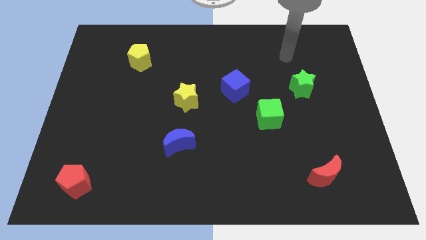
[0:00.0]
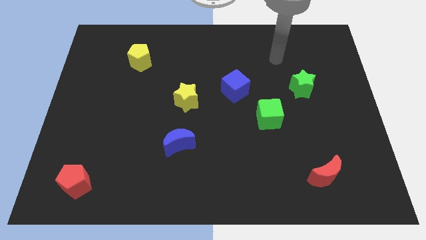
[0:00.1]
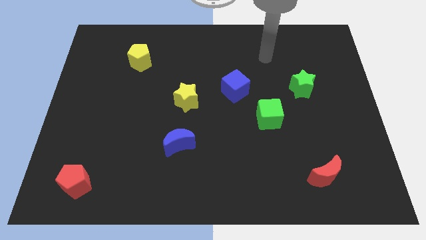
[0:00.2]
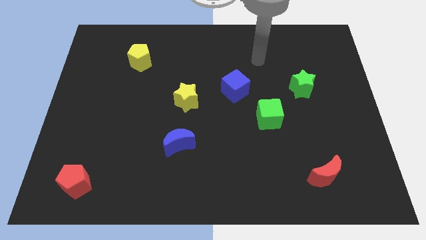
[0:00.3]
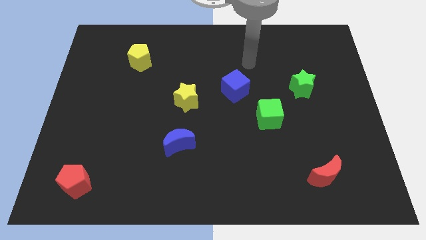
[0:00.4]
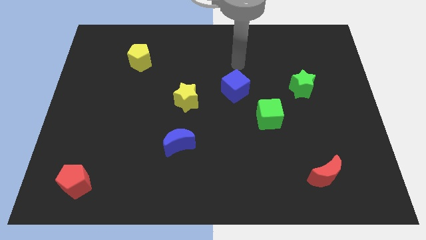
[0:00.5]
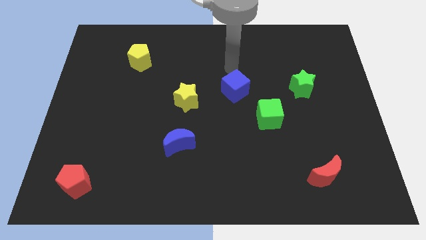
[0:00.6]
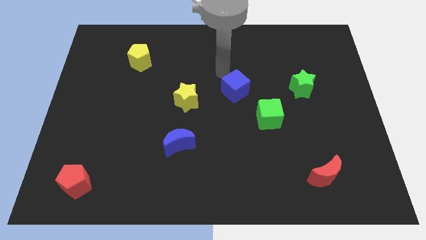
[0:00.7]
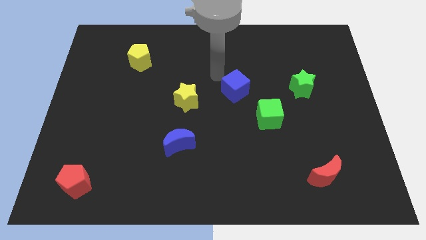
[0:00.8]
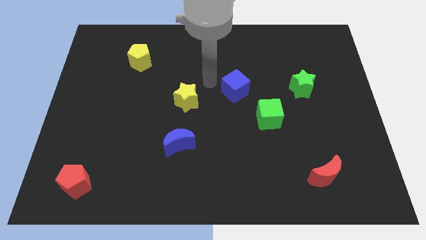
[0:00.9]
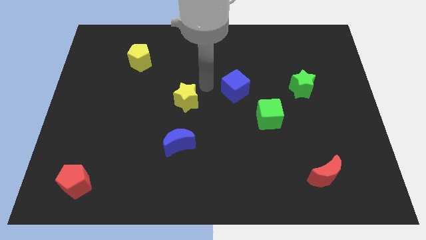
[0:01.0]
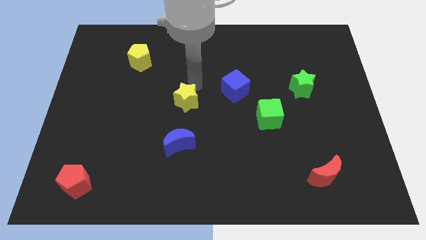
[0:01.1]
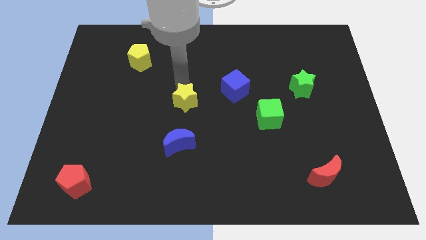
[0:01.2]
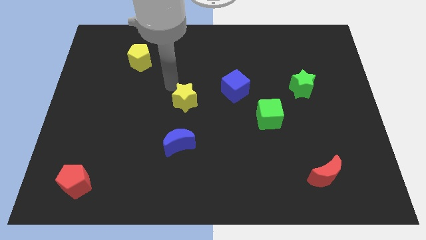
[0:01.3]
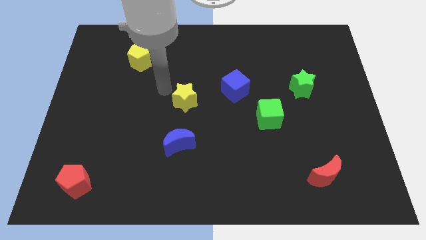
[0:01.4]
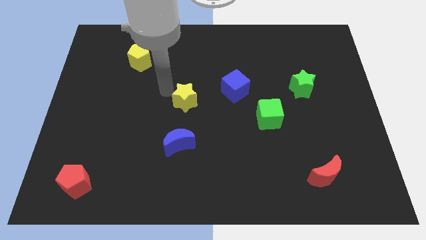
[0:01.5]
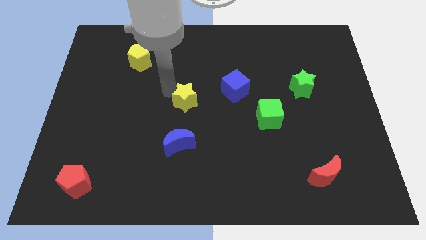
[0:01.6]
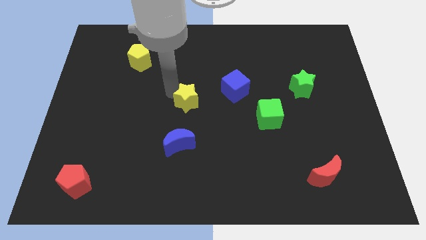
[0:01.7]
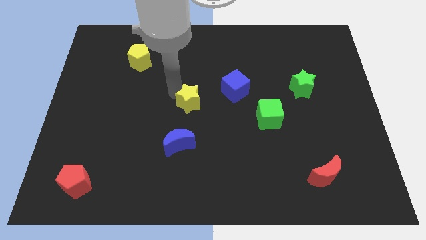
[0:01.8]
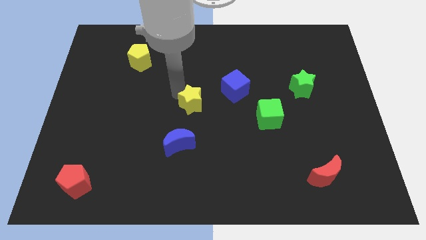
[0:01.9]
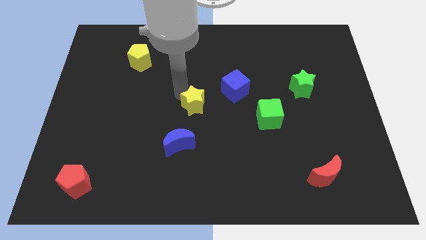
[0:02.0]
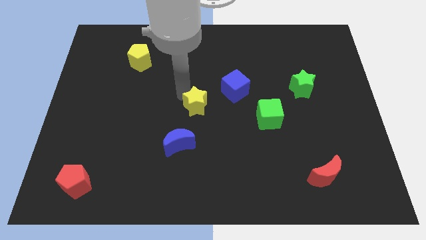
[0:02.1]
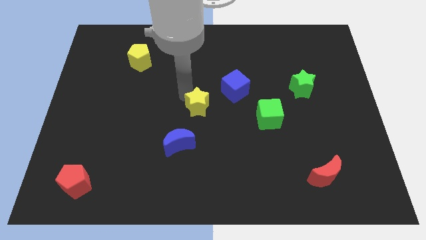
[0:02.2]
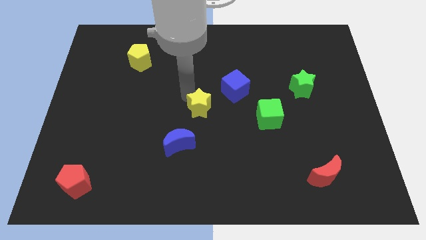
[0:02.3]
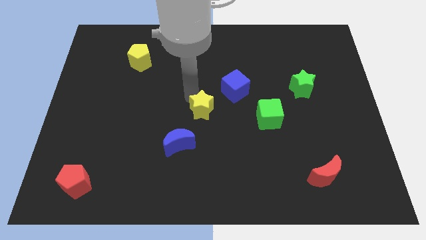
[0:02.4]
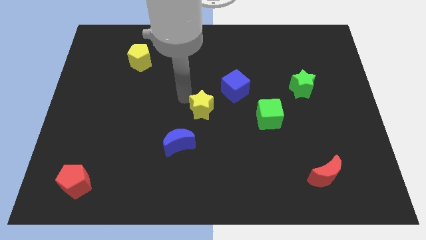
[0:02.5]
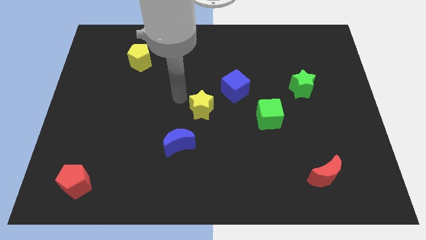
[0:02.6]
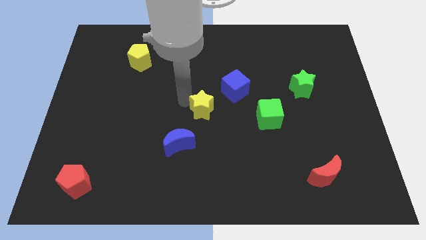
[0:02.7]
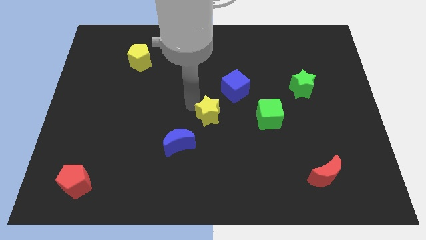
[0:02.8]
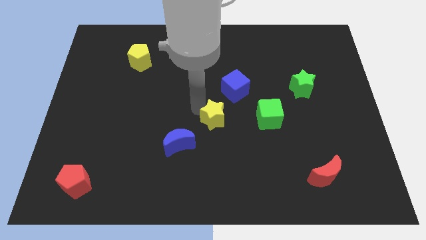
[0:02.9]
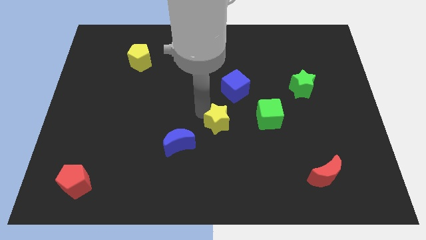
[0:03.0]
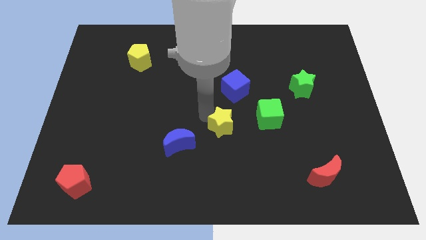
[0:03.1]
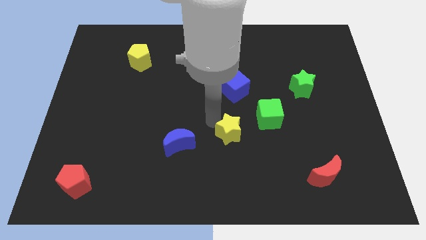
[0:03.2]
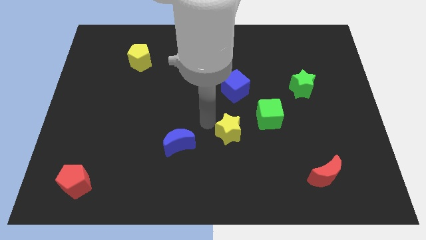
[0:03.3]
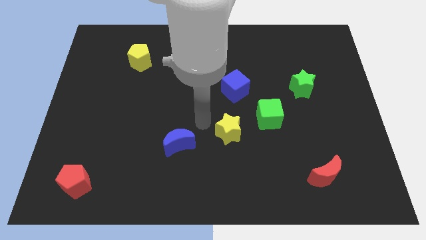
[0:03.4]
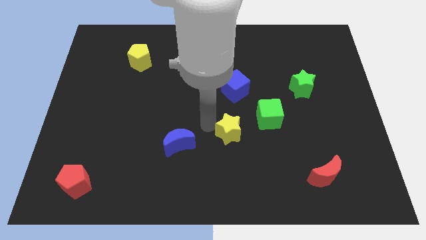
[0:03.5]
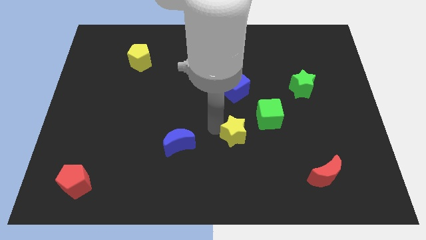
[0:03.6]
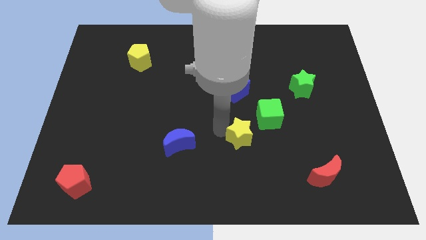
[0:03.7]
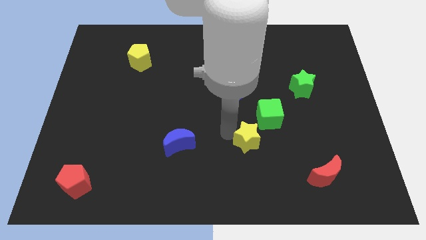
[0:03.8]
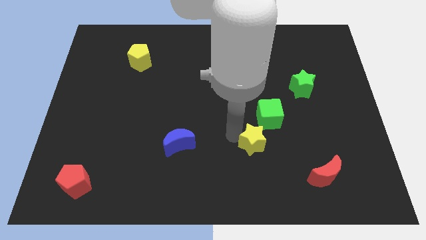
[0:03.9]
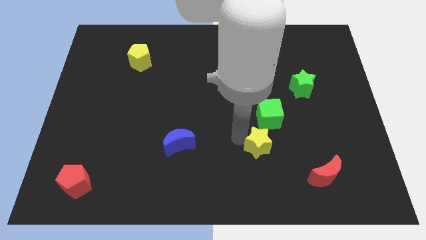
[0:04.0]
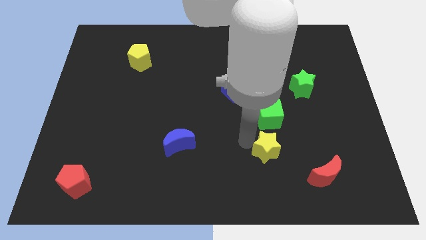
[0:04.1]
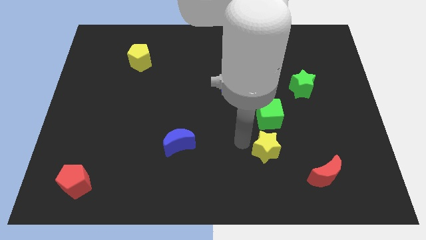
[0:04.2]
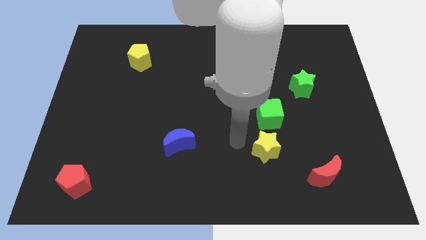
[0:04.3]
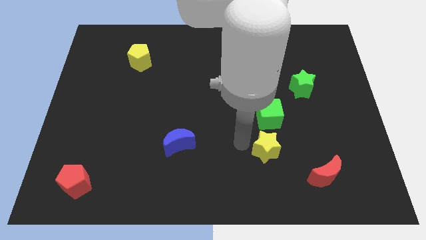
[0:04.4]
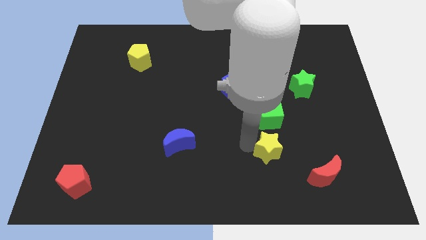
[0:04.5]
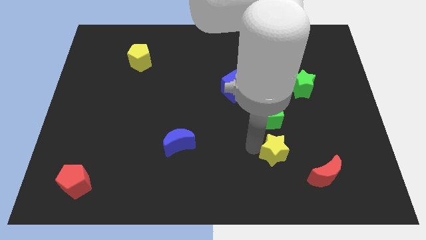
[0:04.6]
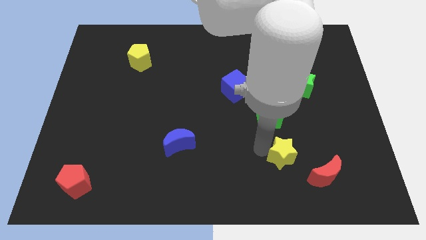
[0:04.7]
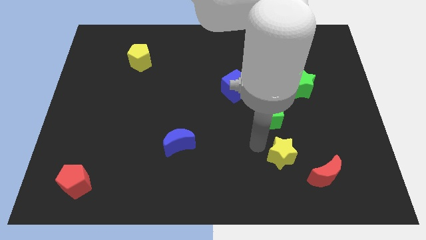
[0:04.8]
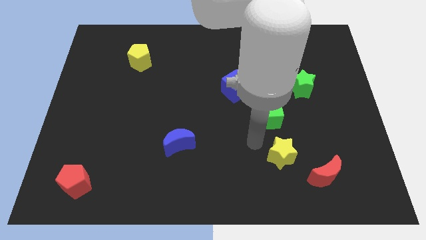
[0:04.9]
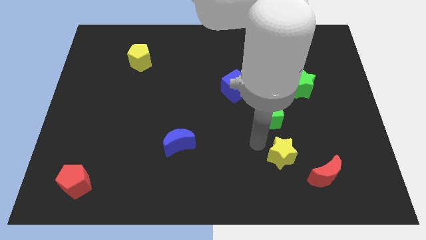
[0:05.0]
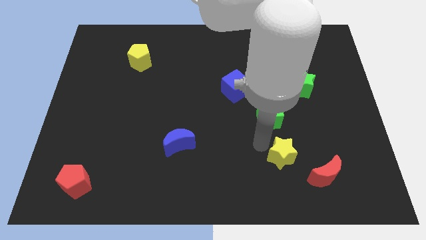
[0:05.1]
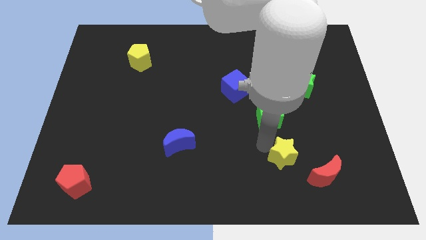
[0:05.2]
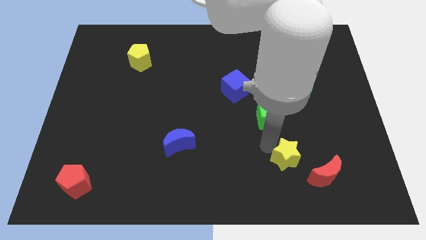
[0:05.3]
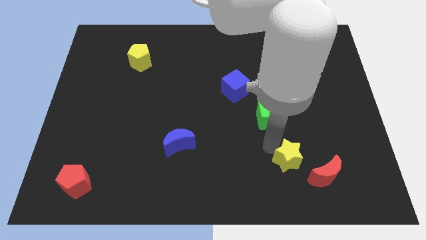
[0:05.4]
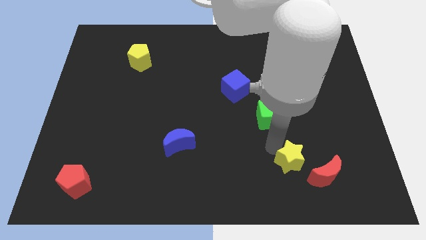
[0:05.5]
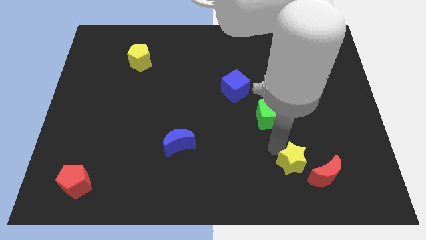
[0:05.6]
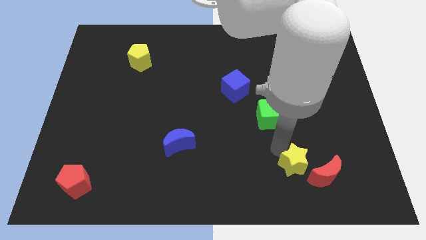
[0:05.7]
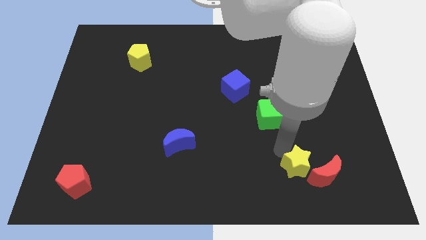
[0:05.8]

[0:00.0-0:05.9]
move the yellow star towards the red moon

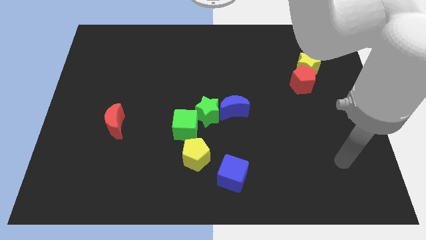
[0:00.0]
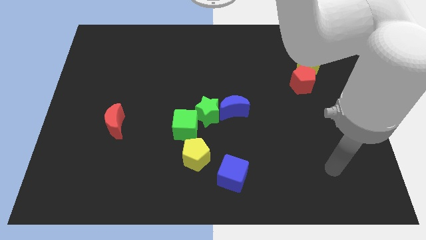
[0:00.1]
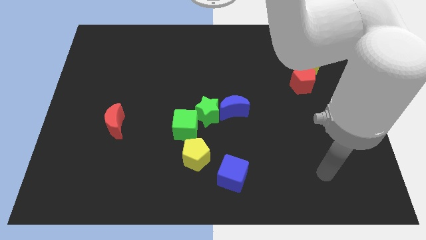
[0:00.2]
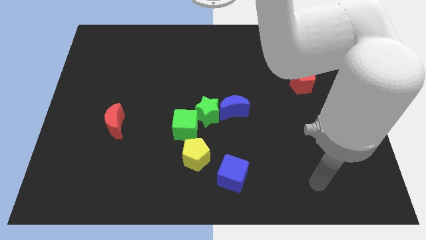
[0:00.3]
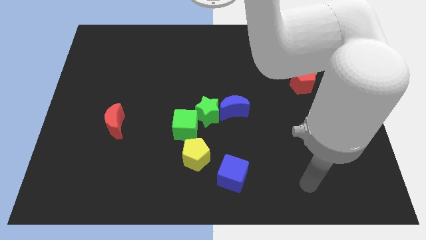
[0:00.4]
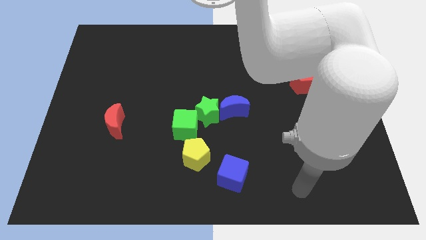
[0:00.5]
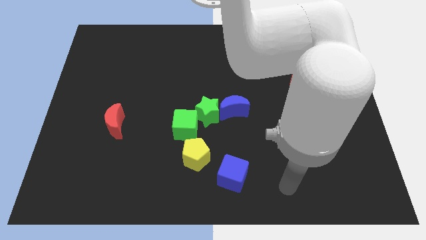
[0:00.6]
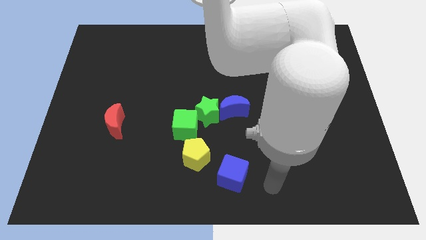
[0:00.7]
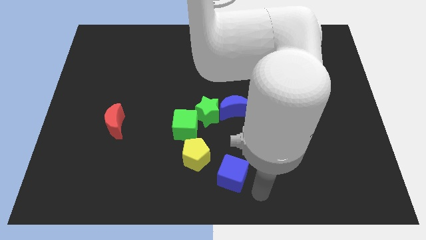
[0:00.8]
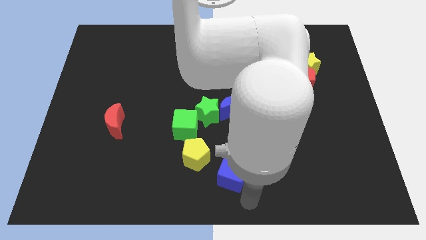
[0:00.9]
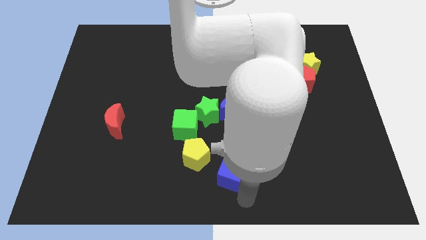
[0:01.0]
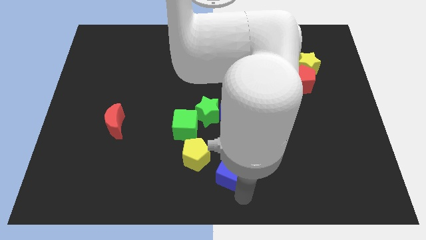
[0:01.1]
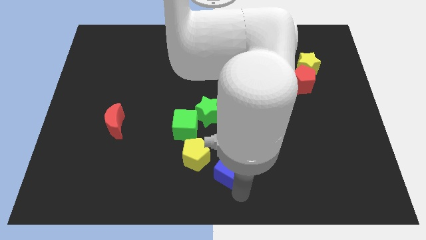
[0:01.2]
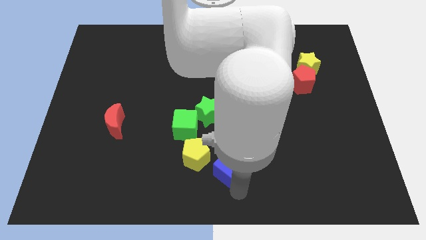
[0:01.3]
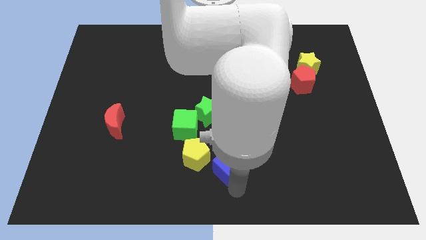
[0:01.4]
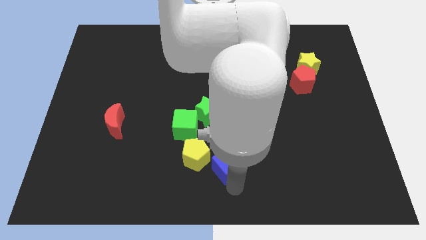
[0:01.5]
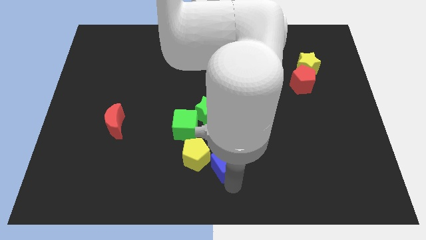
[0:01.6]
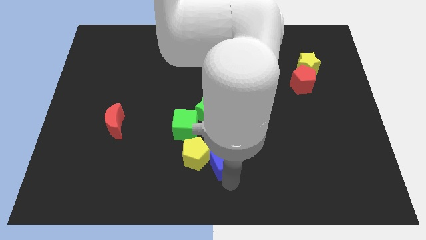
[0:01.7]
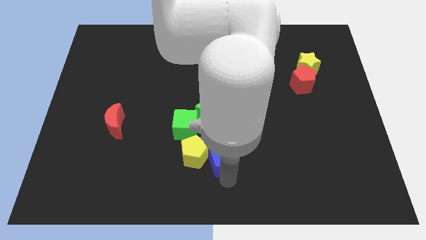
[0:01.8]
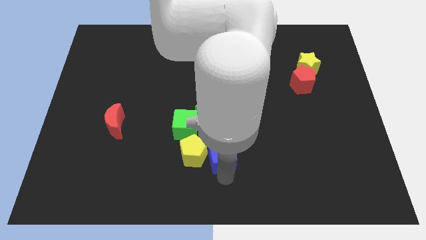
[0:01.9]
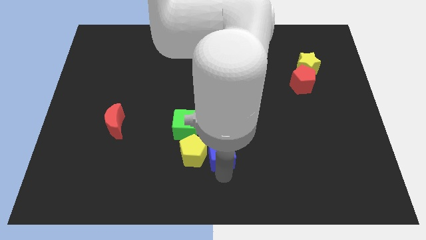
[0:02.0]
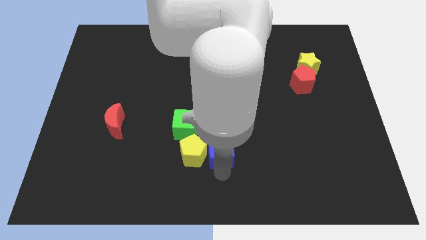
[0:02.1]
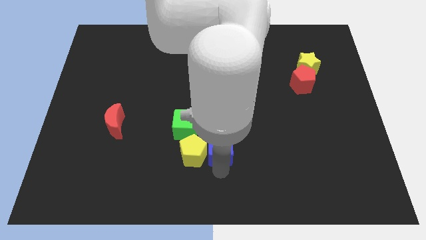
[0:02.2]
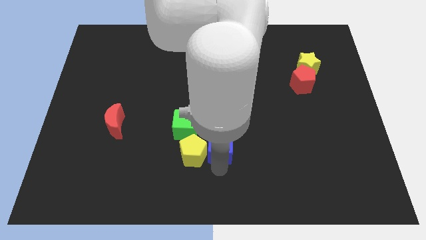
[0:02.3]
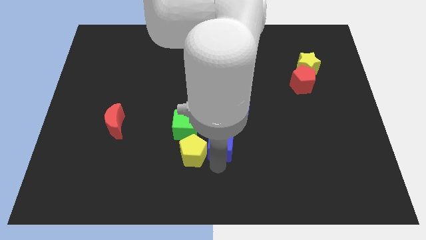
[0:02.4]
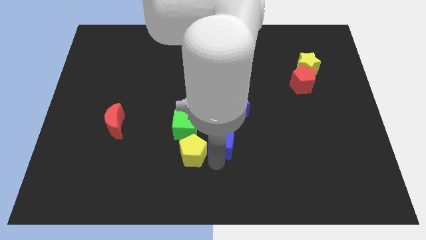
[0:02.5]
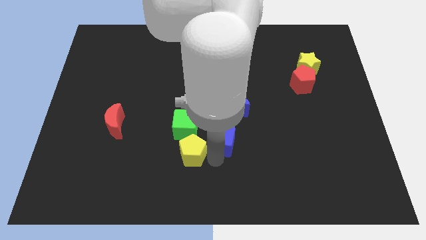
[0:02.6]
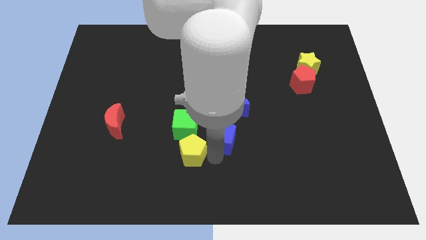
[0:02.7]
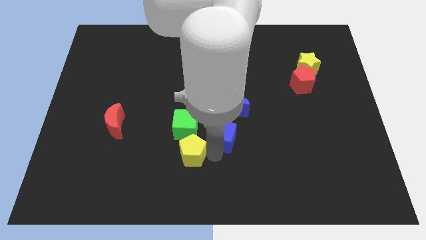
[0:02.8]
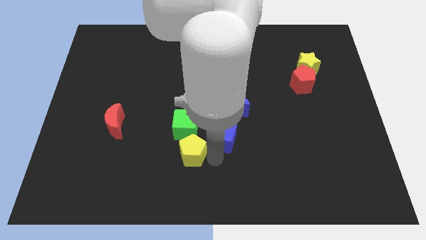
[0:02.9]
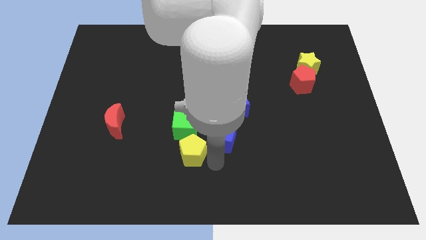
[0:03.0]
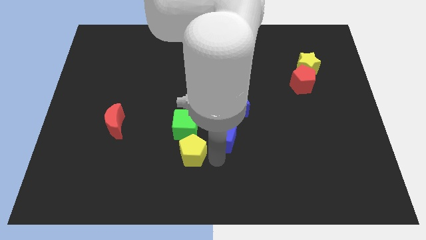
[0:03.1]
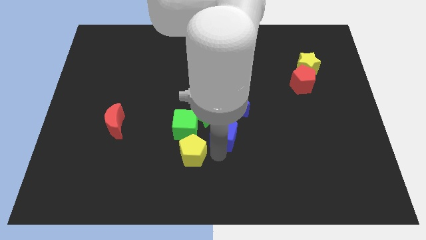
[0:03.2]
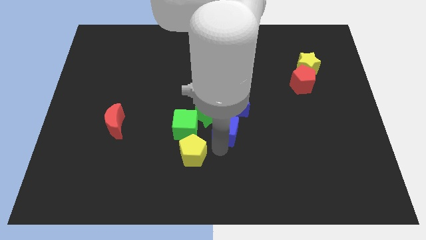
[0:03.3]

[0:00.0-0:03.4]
move the blue cube next to the green star
